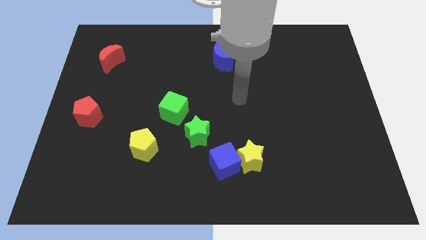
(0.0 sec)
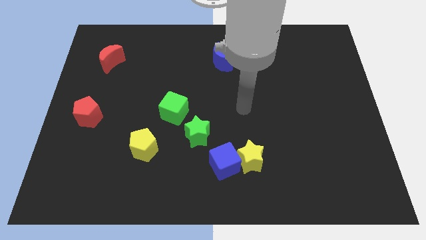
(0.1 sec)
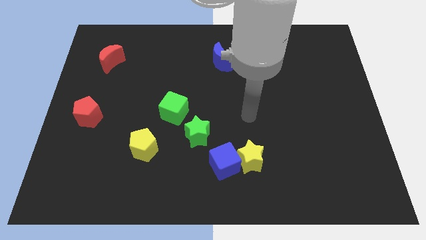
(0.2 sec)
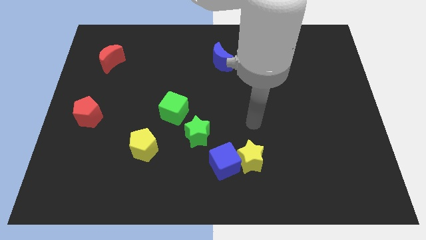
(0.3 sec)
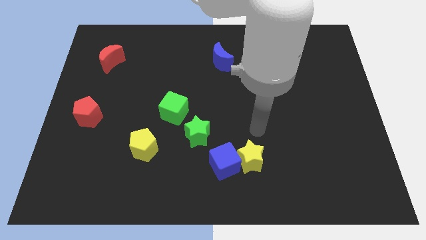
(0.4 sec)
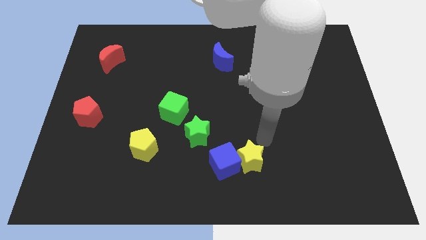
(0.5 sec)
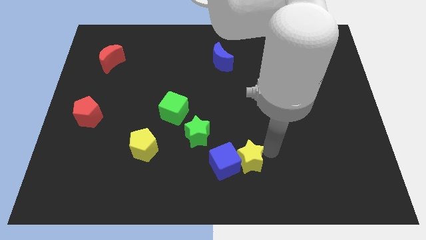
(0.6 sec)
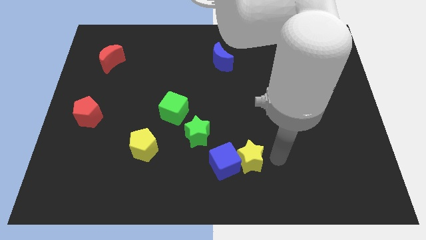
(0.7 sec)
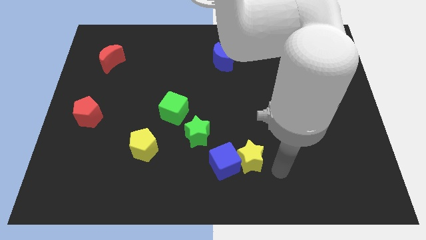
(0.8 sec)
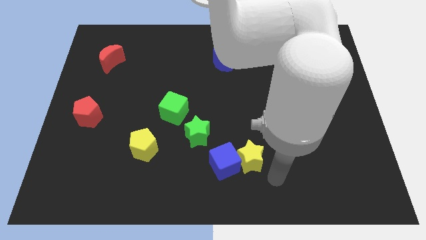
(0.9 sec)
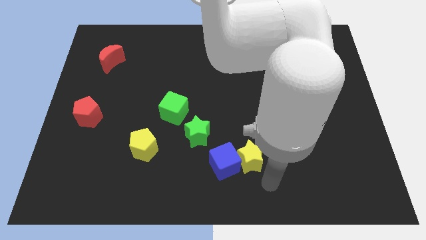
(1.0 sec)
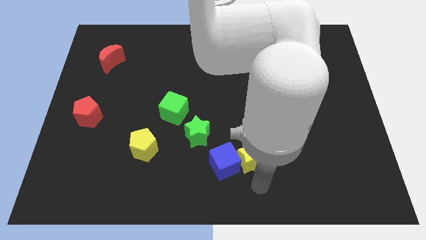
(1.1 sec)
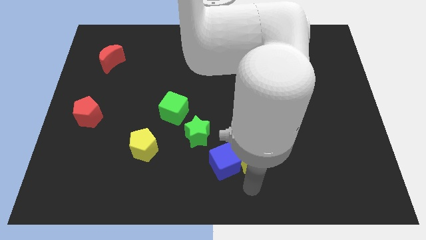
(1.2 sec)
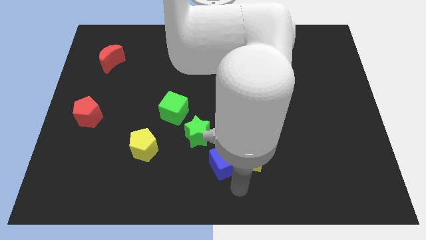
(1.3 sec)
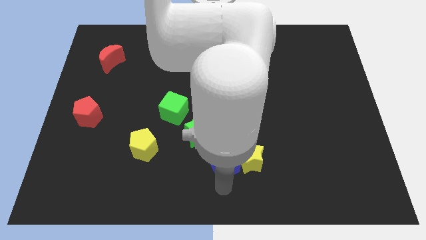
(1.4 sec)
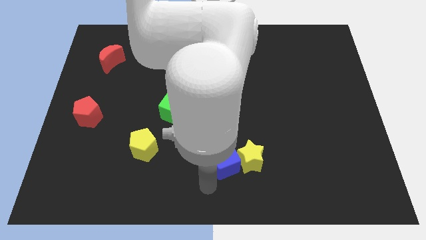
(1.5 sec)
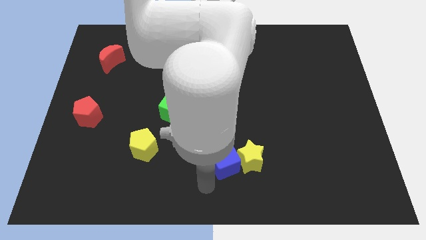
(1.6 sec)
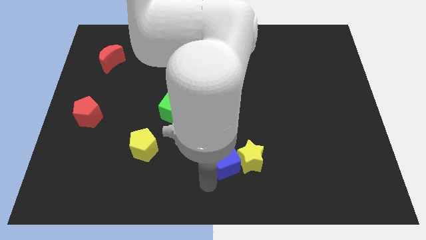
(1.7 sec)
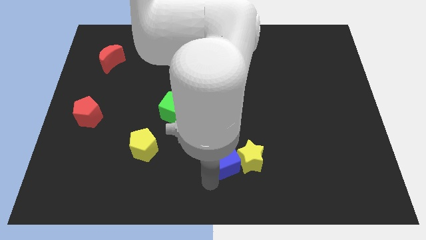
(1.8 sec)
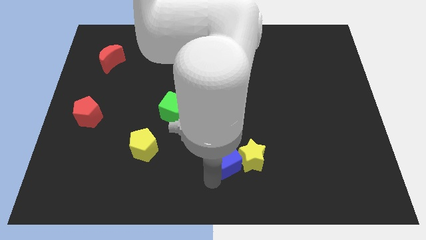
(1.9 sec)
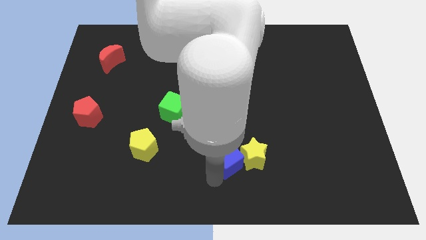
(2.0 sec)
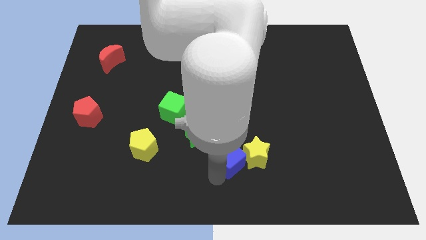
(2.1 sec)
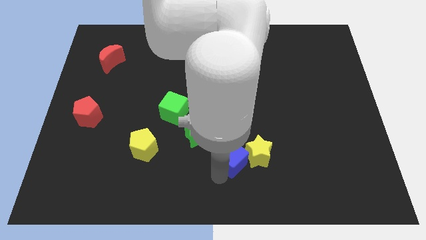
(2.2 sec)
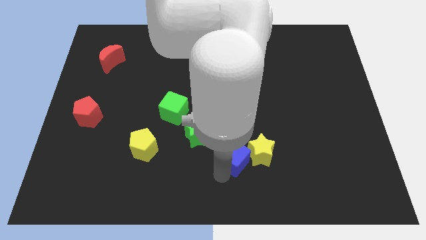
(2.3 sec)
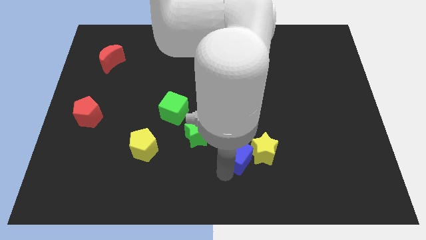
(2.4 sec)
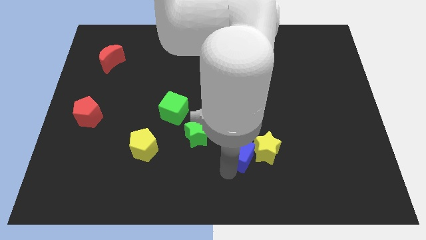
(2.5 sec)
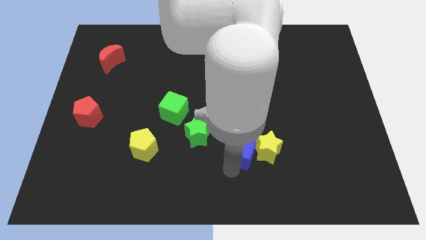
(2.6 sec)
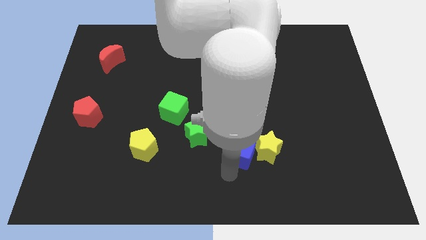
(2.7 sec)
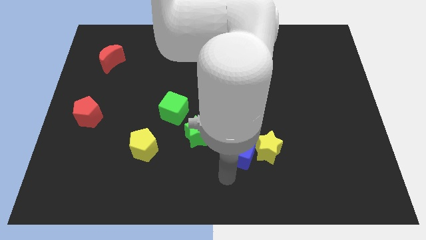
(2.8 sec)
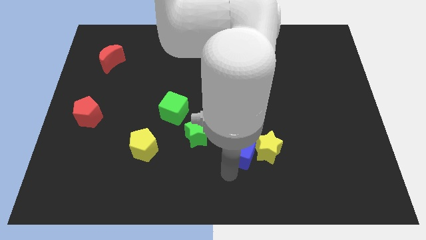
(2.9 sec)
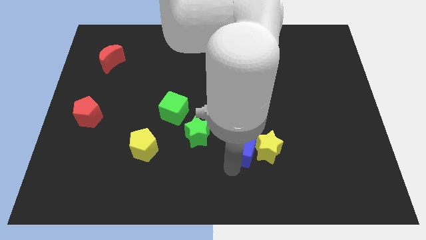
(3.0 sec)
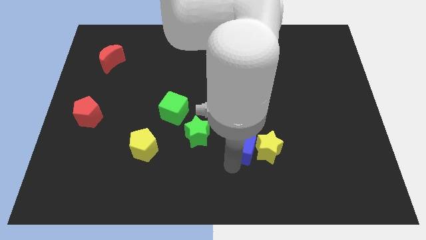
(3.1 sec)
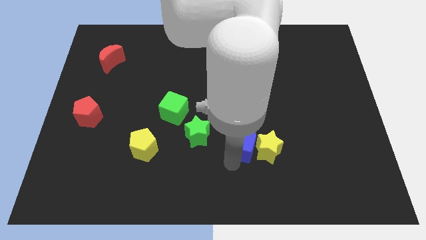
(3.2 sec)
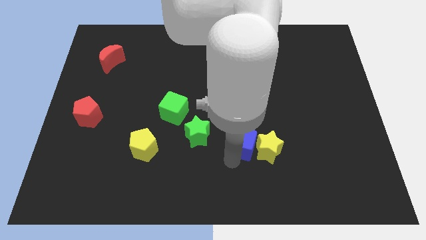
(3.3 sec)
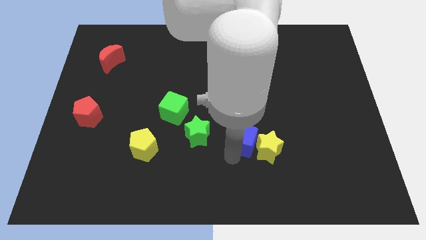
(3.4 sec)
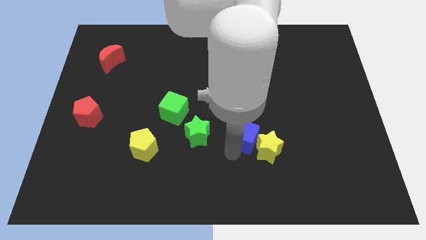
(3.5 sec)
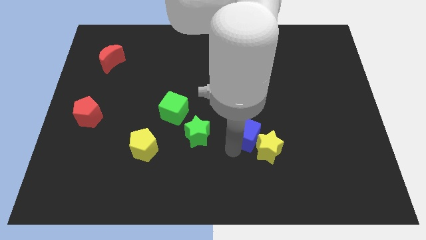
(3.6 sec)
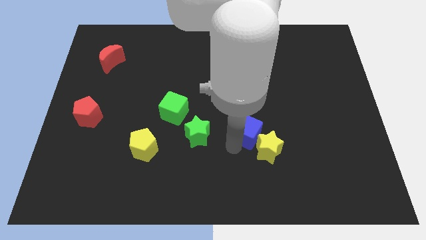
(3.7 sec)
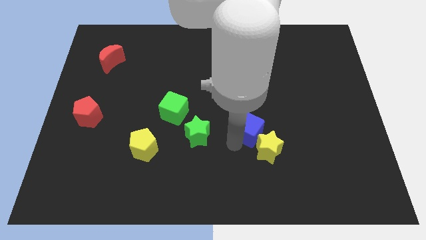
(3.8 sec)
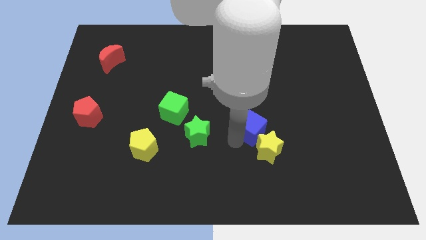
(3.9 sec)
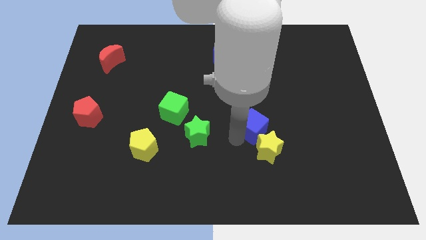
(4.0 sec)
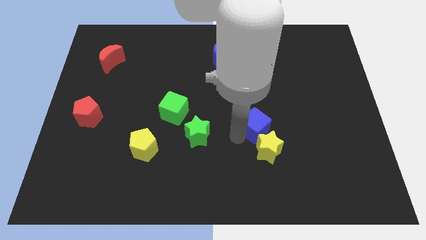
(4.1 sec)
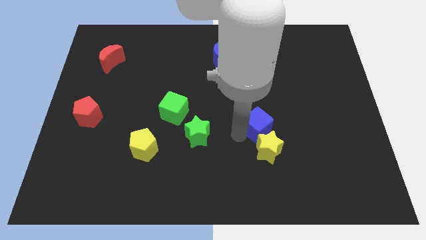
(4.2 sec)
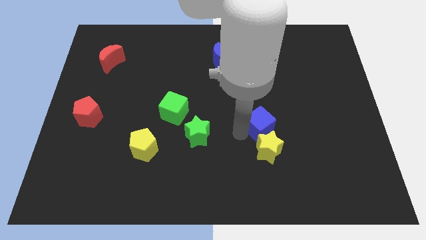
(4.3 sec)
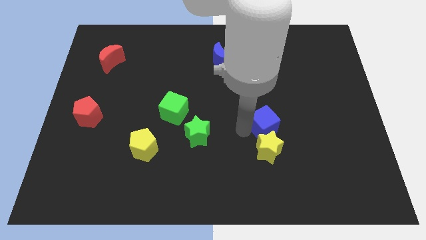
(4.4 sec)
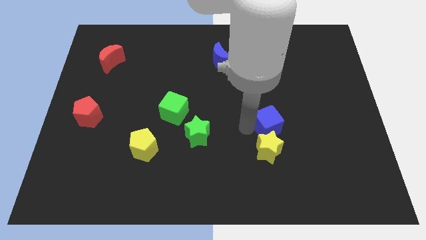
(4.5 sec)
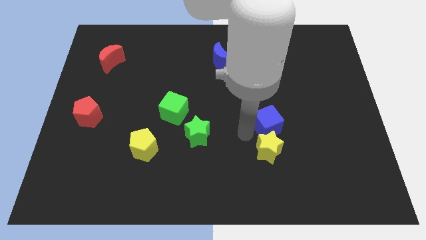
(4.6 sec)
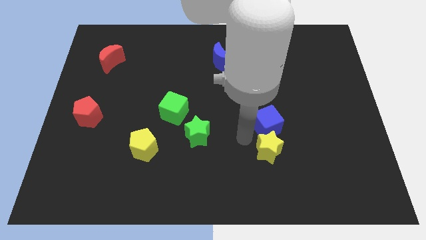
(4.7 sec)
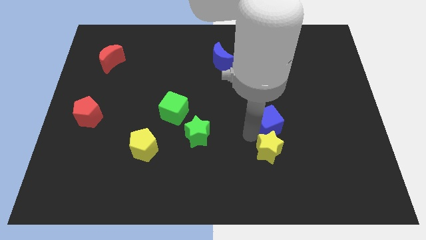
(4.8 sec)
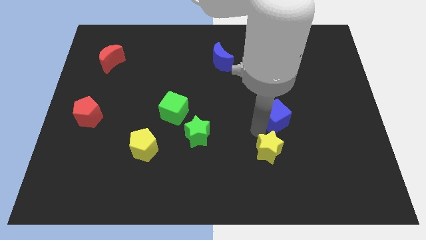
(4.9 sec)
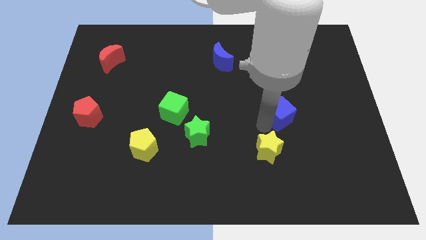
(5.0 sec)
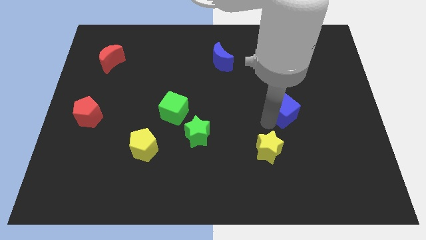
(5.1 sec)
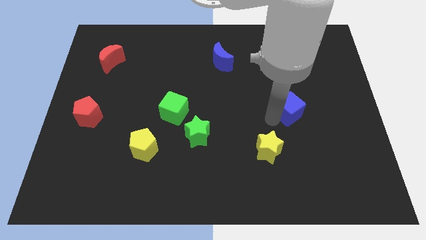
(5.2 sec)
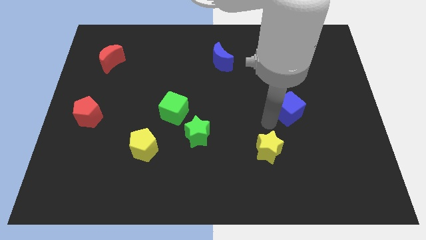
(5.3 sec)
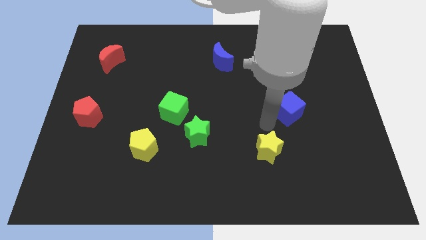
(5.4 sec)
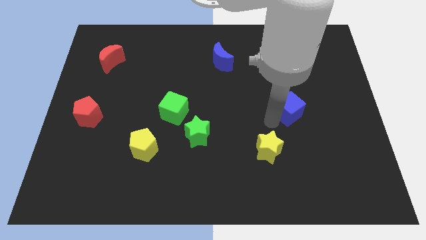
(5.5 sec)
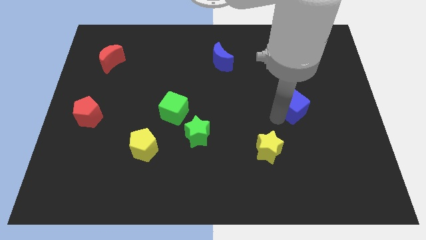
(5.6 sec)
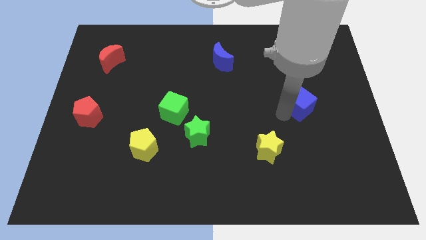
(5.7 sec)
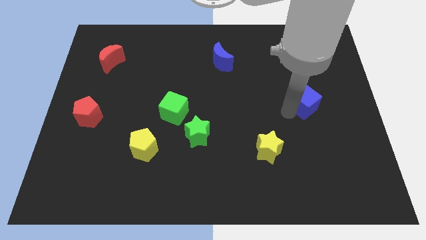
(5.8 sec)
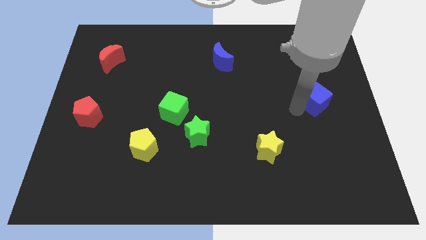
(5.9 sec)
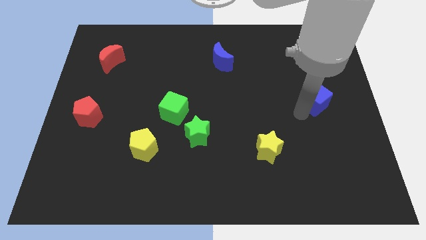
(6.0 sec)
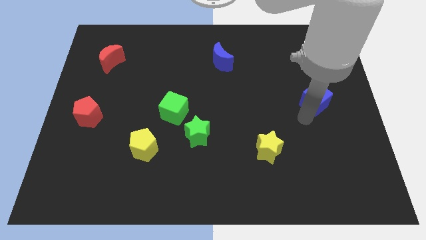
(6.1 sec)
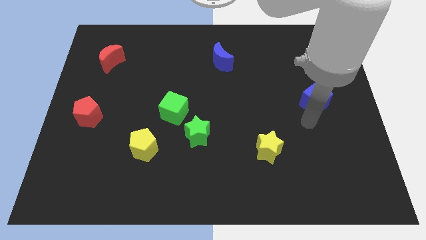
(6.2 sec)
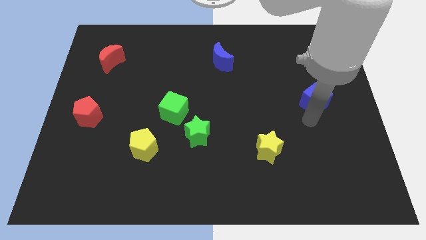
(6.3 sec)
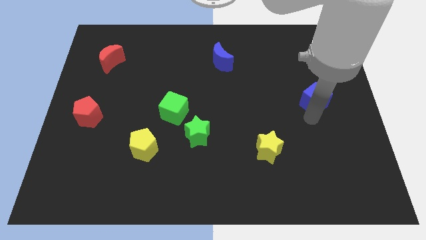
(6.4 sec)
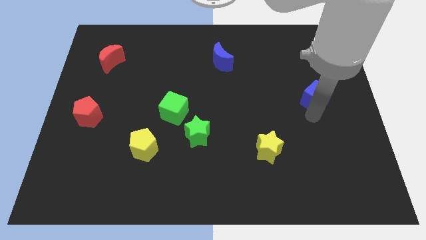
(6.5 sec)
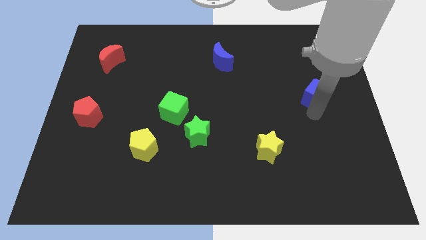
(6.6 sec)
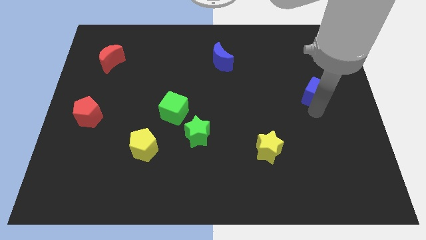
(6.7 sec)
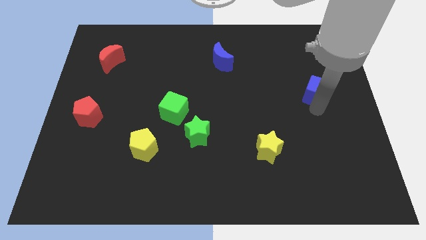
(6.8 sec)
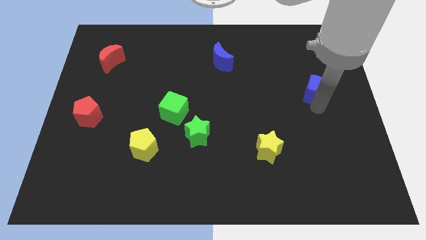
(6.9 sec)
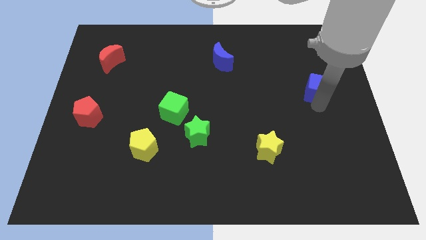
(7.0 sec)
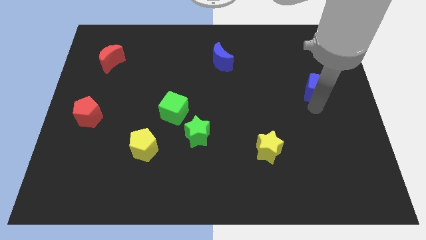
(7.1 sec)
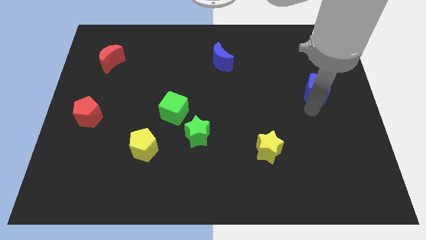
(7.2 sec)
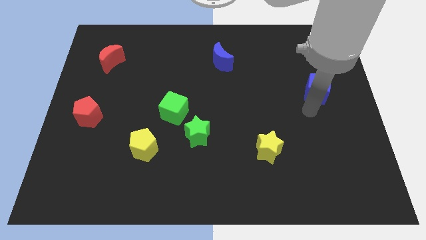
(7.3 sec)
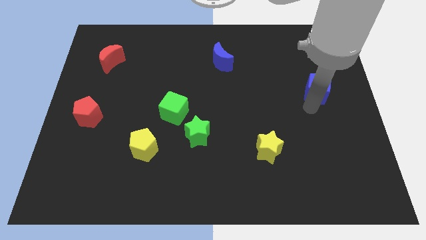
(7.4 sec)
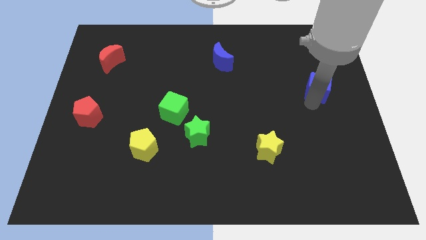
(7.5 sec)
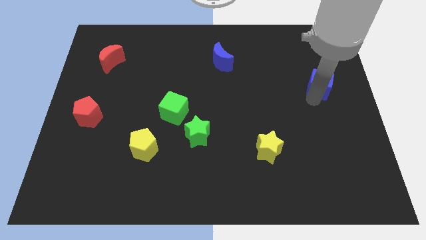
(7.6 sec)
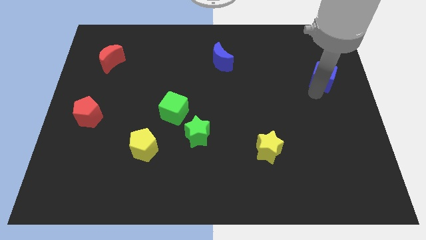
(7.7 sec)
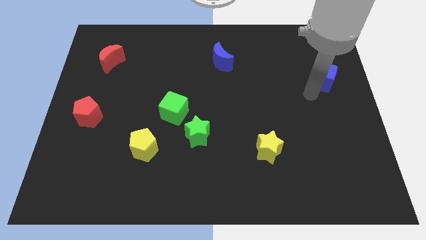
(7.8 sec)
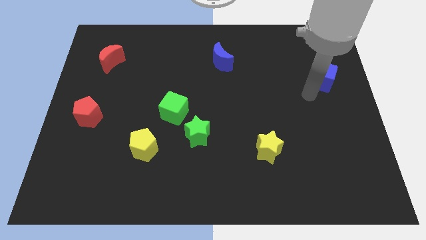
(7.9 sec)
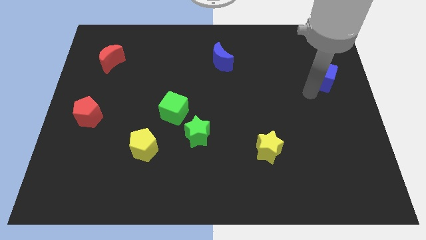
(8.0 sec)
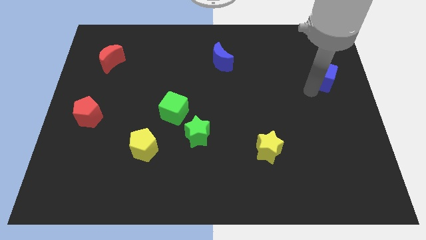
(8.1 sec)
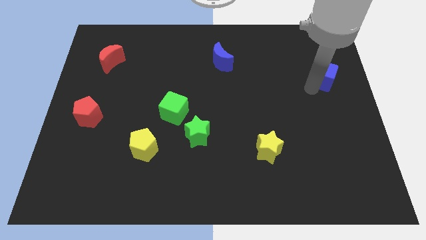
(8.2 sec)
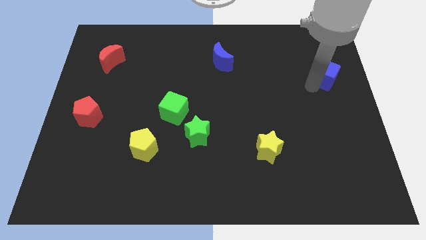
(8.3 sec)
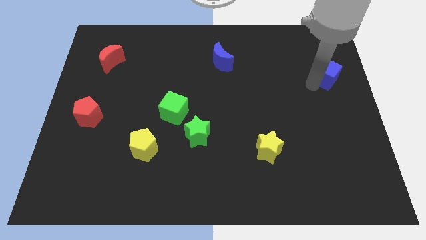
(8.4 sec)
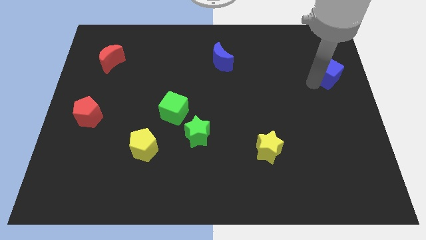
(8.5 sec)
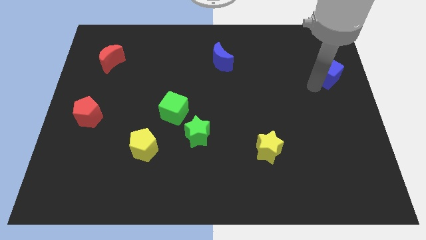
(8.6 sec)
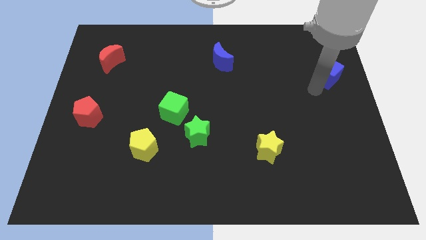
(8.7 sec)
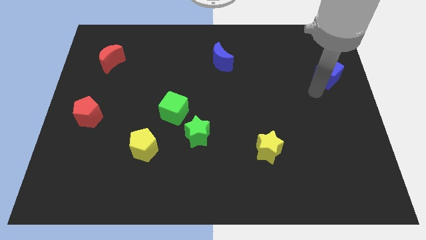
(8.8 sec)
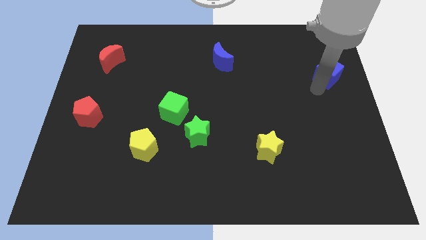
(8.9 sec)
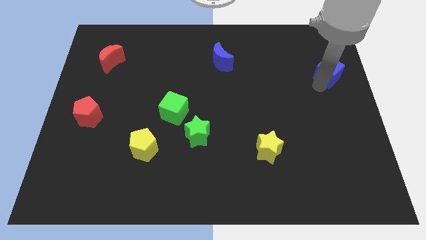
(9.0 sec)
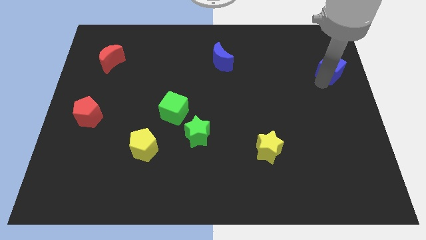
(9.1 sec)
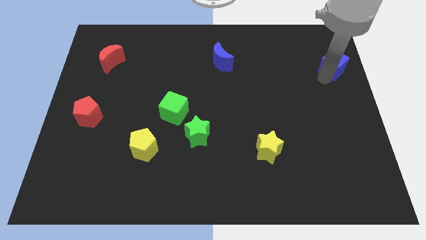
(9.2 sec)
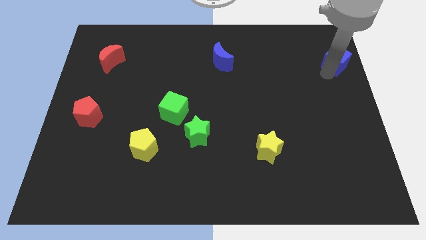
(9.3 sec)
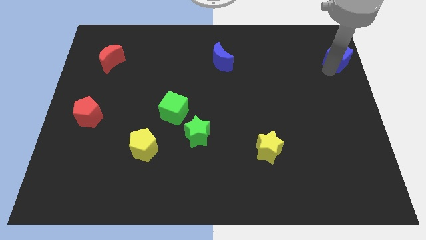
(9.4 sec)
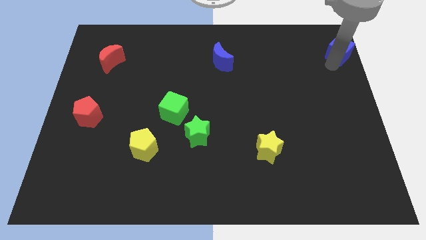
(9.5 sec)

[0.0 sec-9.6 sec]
push the blue cube to the top right corner
